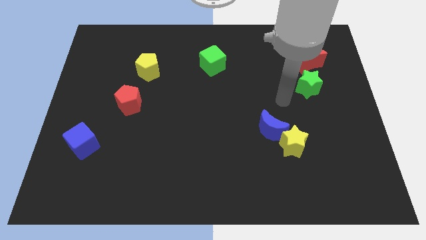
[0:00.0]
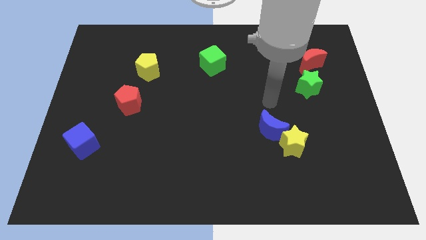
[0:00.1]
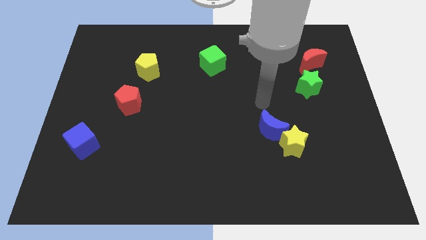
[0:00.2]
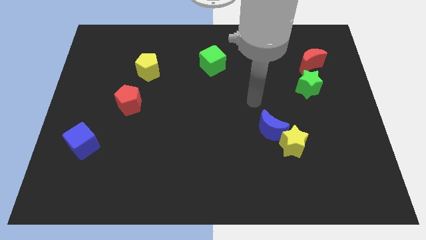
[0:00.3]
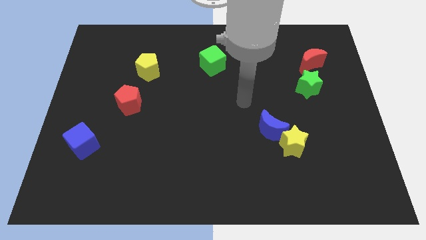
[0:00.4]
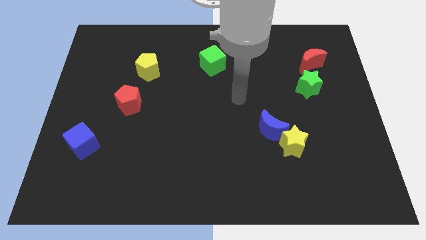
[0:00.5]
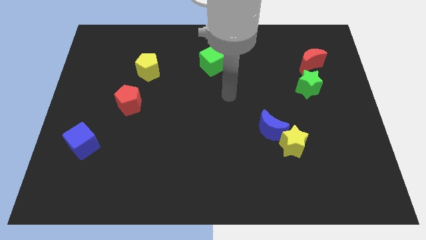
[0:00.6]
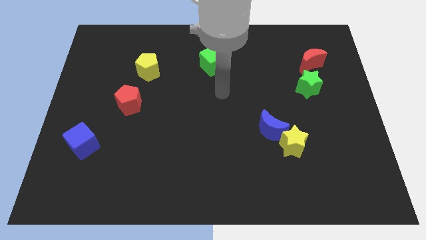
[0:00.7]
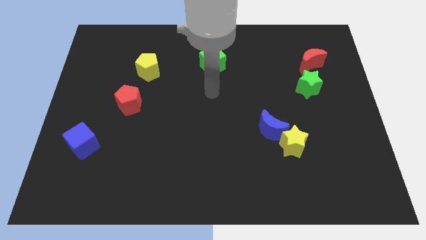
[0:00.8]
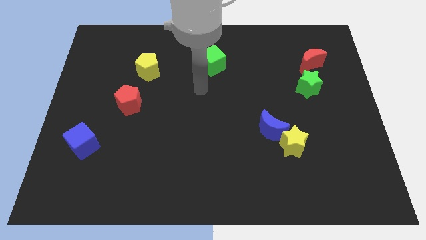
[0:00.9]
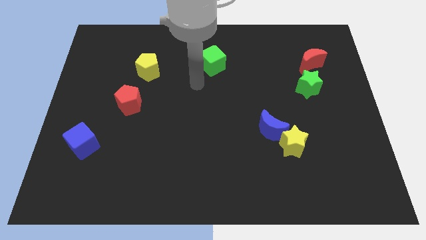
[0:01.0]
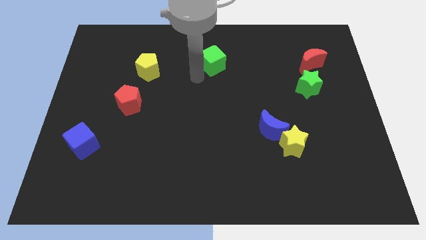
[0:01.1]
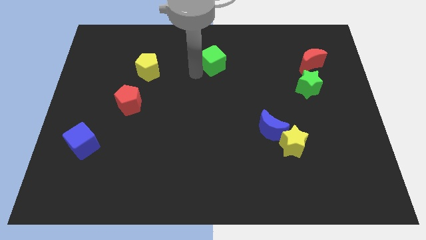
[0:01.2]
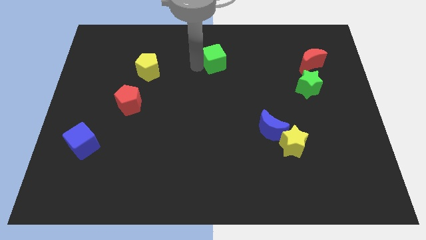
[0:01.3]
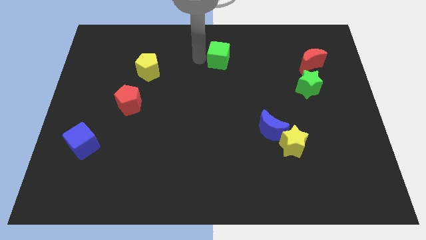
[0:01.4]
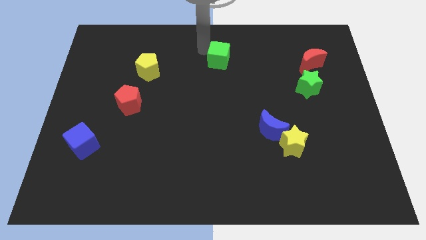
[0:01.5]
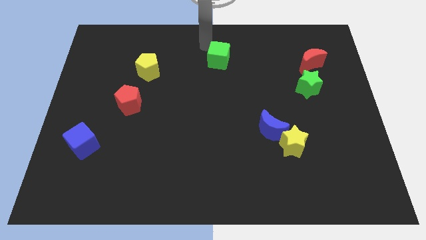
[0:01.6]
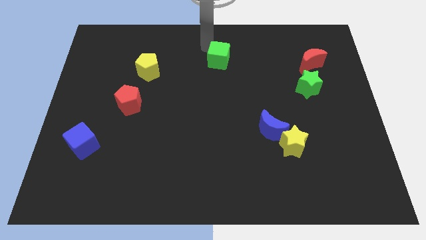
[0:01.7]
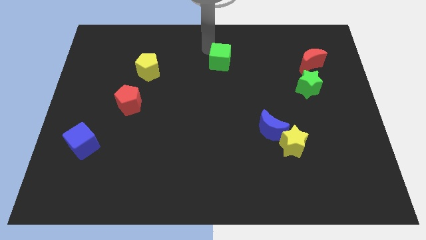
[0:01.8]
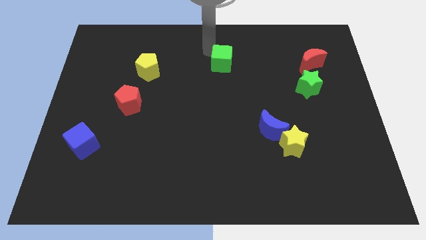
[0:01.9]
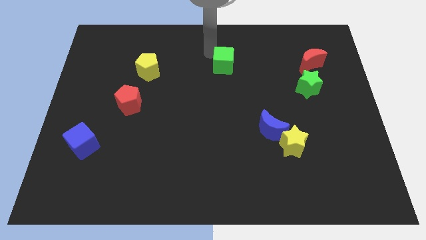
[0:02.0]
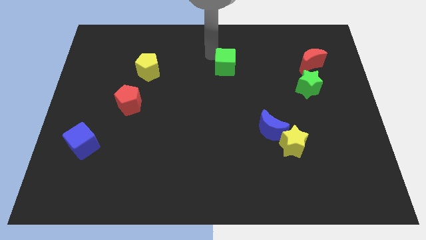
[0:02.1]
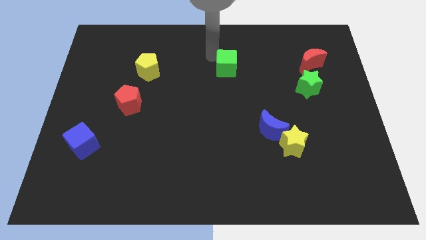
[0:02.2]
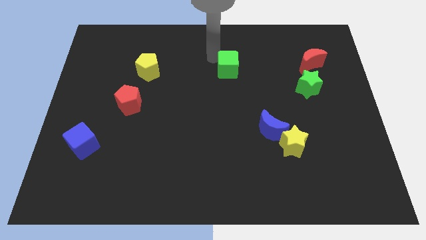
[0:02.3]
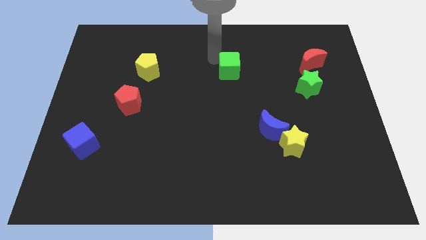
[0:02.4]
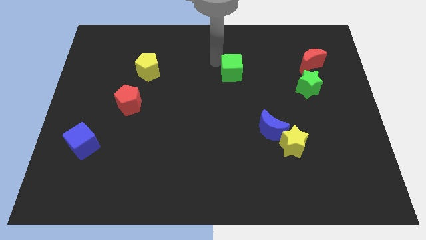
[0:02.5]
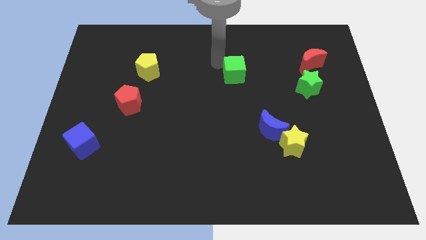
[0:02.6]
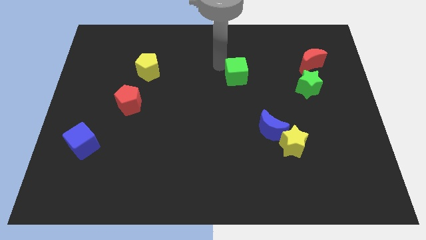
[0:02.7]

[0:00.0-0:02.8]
slightly move the green cube downwards and then to the right

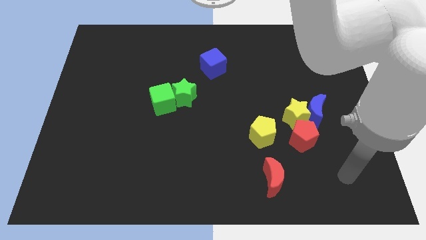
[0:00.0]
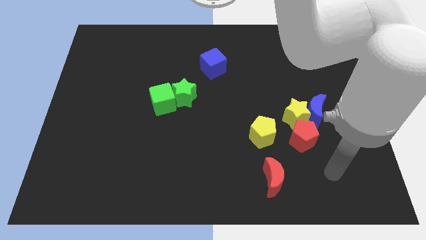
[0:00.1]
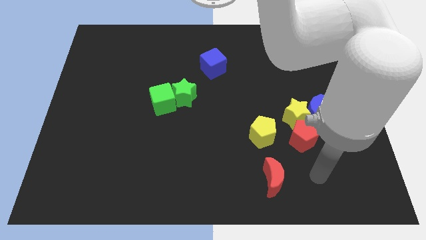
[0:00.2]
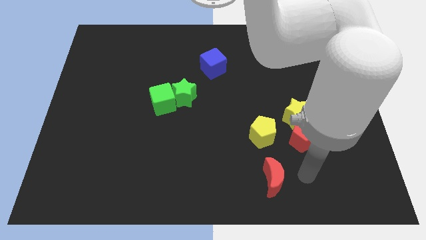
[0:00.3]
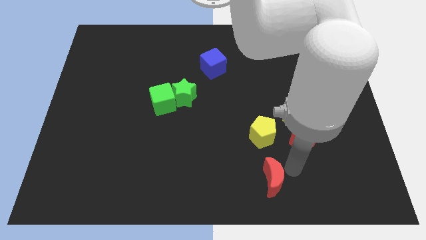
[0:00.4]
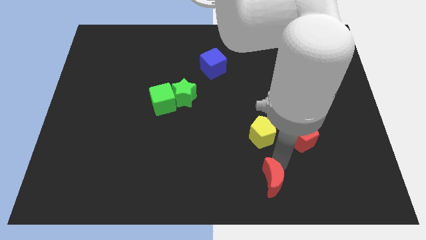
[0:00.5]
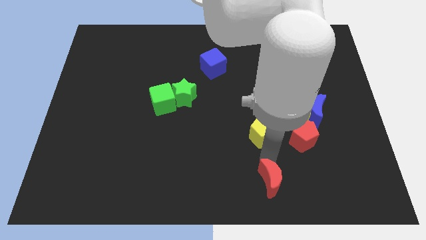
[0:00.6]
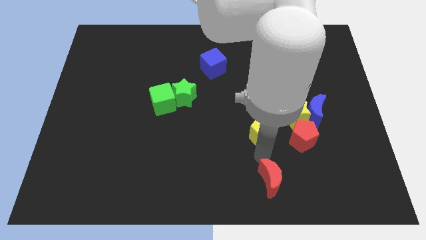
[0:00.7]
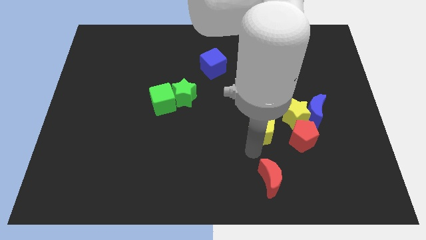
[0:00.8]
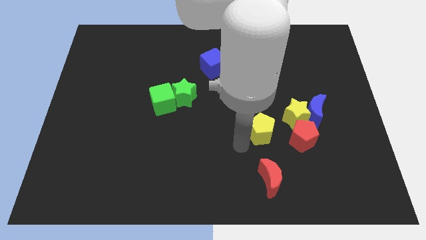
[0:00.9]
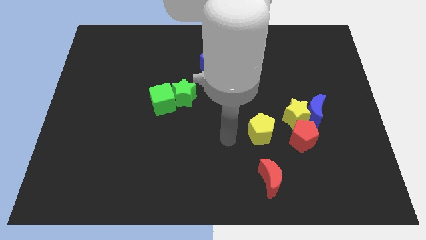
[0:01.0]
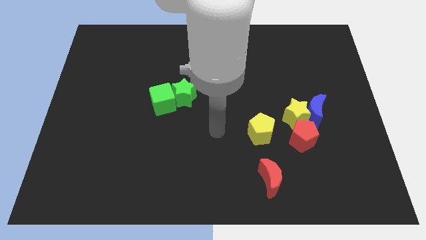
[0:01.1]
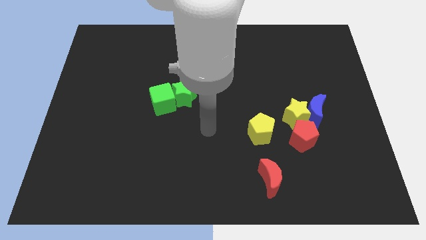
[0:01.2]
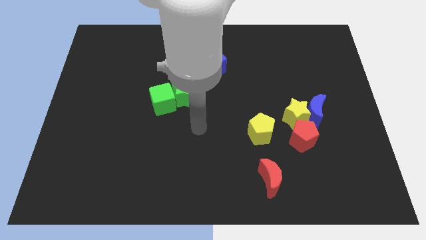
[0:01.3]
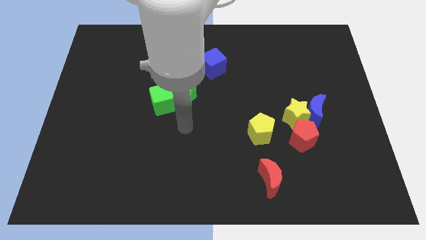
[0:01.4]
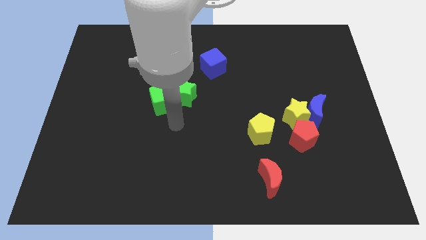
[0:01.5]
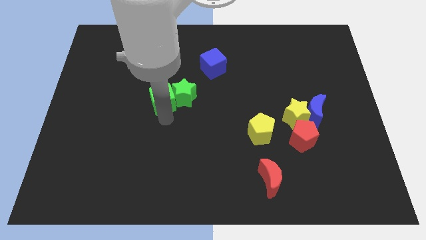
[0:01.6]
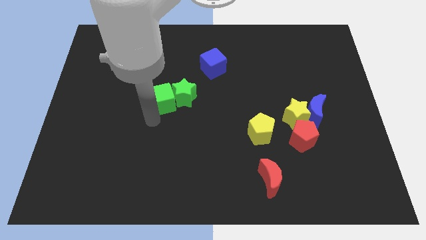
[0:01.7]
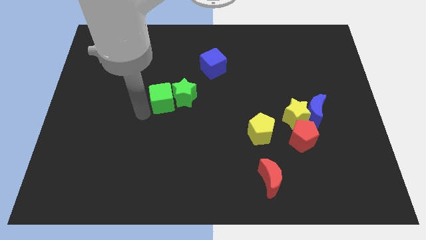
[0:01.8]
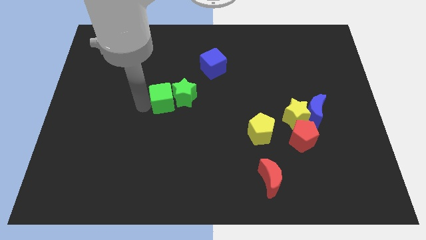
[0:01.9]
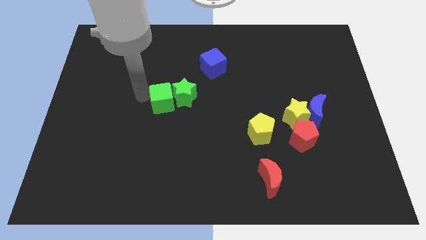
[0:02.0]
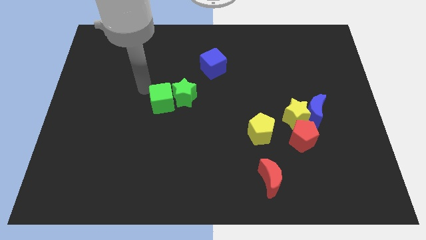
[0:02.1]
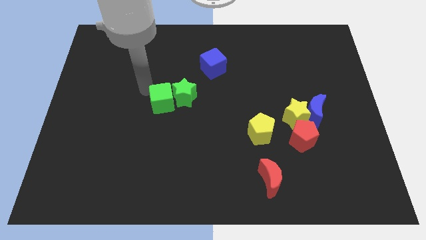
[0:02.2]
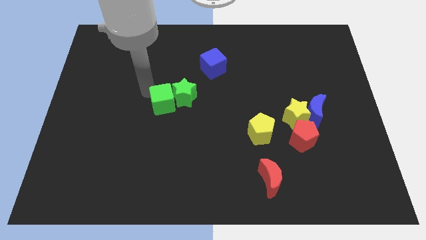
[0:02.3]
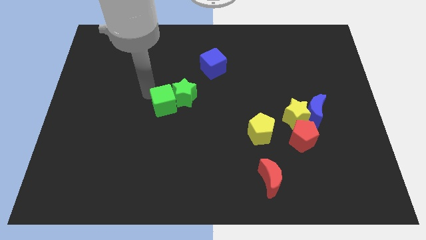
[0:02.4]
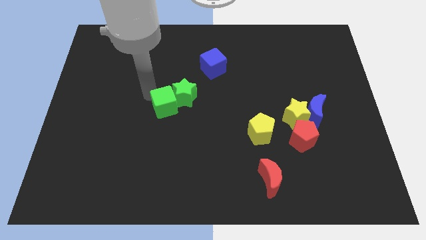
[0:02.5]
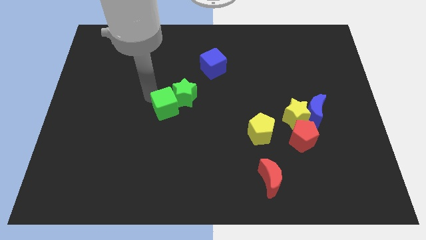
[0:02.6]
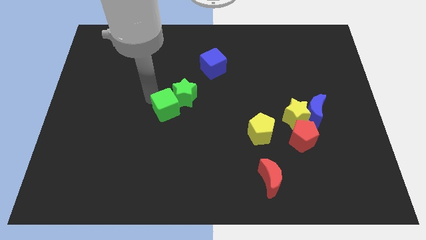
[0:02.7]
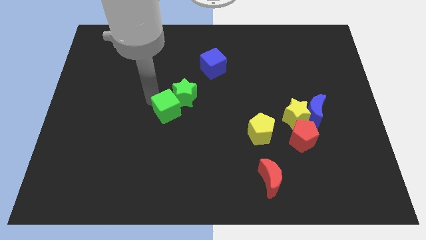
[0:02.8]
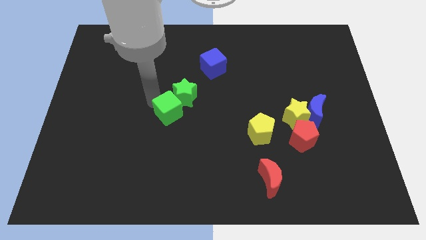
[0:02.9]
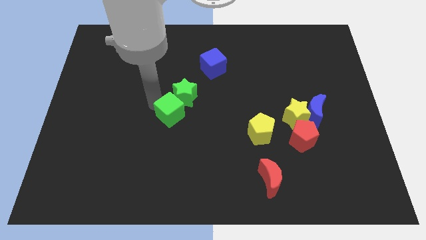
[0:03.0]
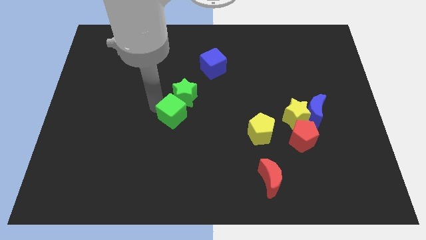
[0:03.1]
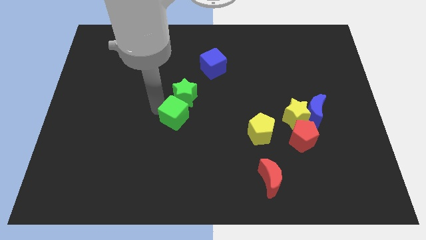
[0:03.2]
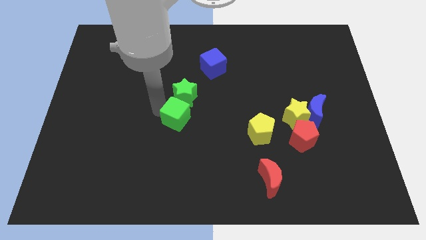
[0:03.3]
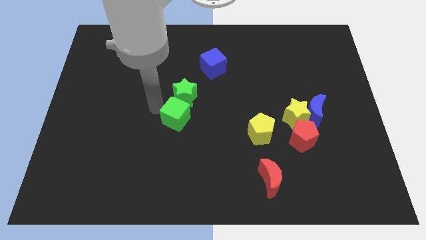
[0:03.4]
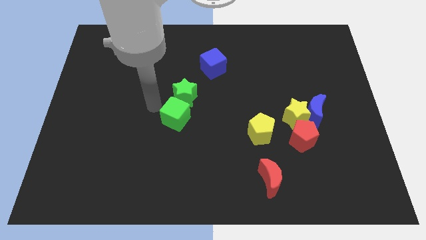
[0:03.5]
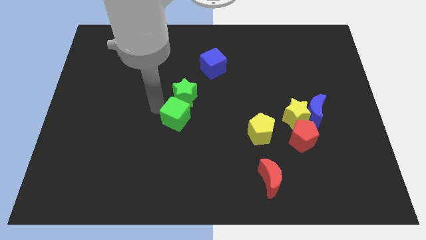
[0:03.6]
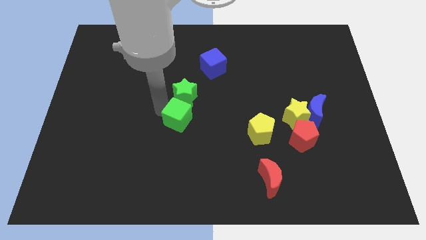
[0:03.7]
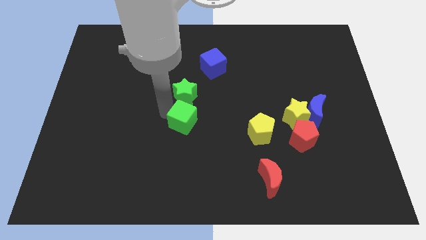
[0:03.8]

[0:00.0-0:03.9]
move the green cube down and right somewhat

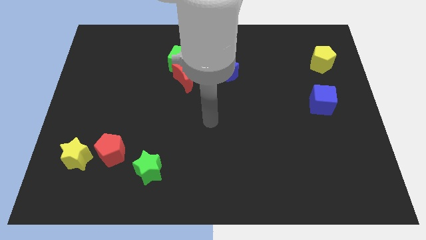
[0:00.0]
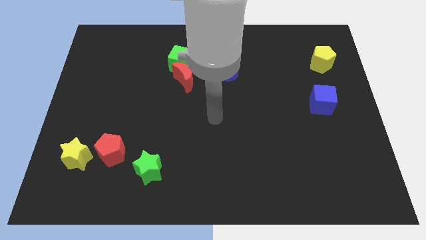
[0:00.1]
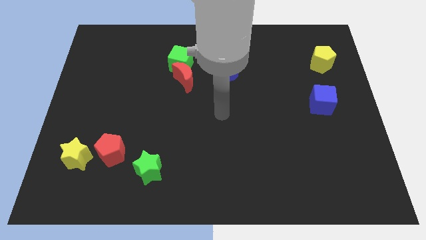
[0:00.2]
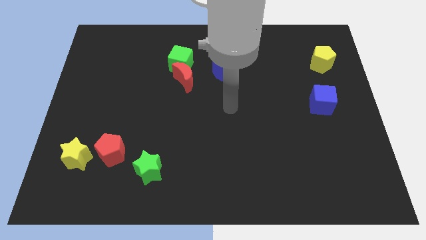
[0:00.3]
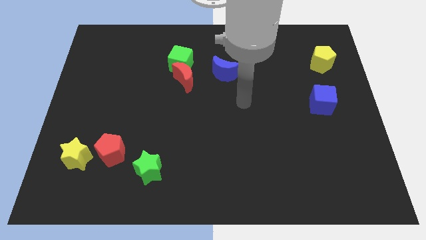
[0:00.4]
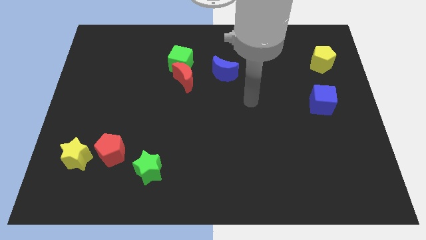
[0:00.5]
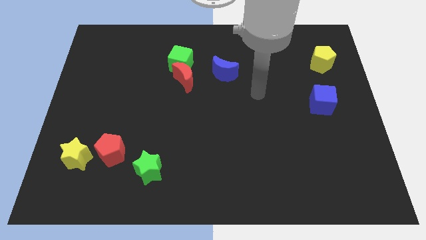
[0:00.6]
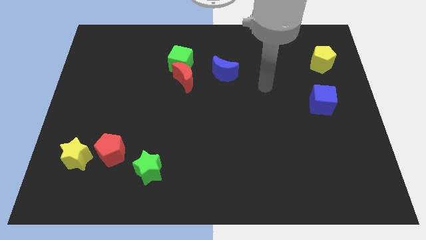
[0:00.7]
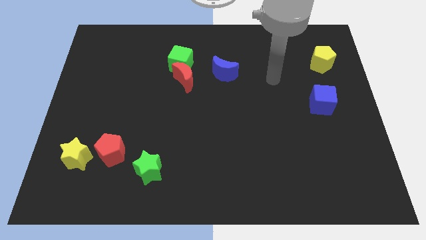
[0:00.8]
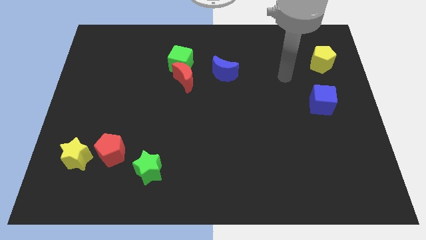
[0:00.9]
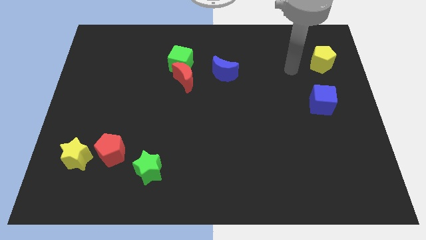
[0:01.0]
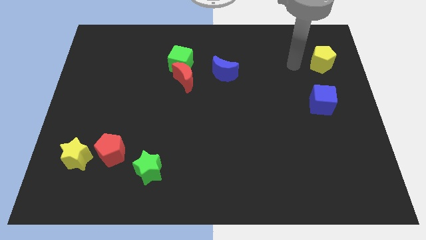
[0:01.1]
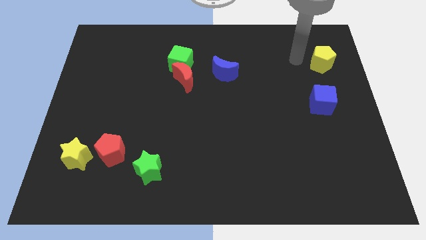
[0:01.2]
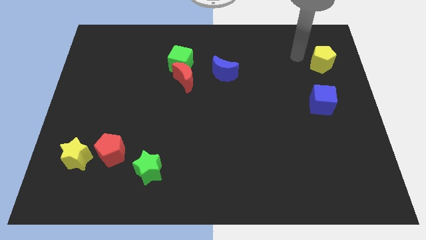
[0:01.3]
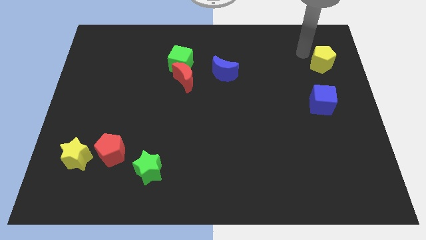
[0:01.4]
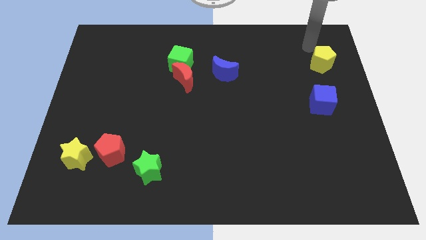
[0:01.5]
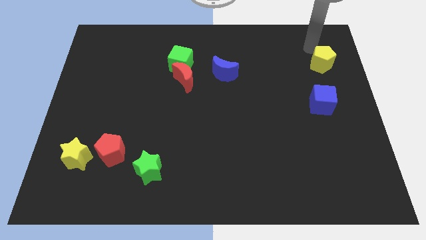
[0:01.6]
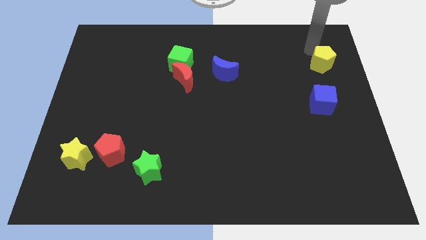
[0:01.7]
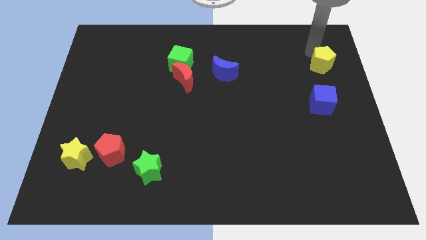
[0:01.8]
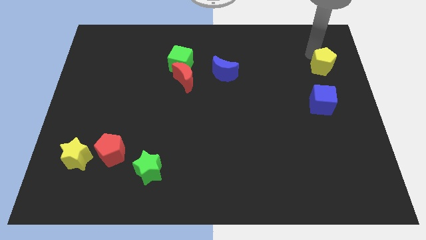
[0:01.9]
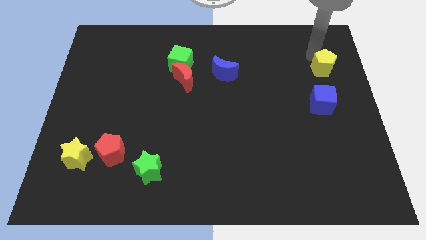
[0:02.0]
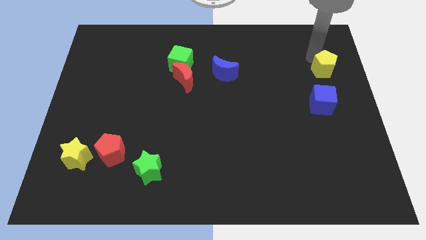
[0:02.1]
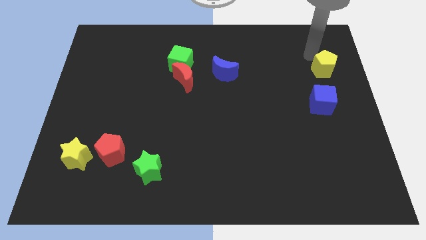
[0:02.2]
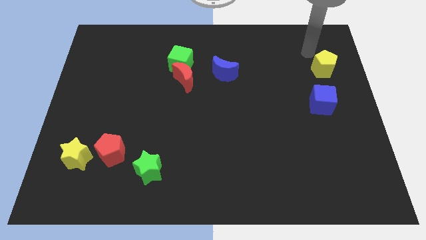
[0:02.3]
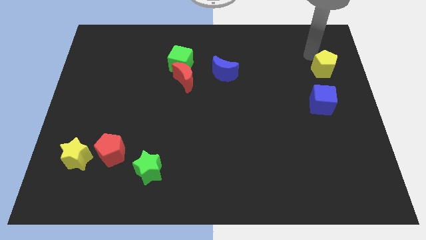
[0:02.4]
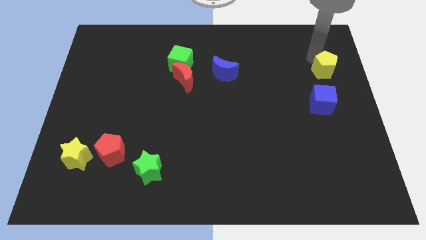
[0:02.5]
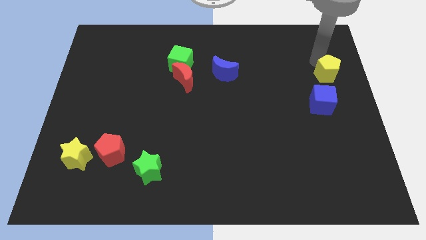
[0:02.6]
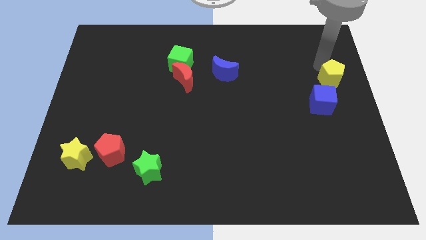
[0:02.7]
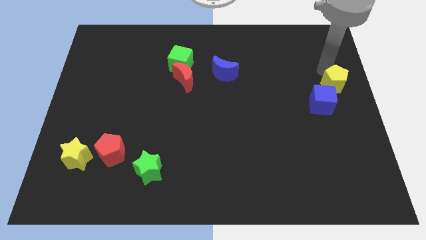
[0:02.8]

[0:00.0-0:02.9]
move the yellow pentagon downwards a bit
